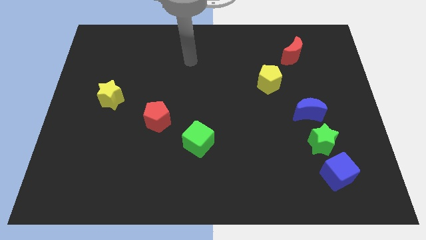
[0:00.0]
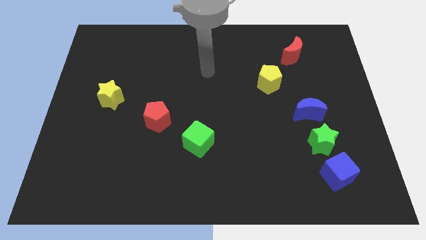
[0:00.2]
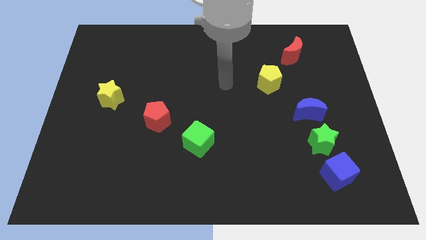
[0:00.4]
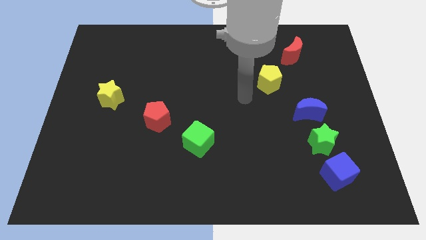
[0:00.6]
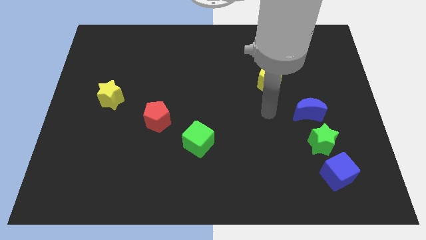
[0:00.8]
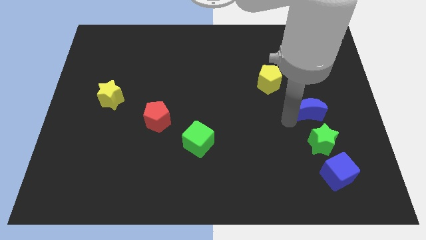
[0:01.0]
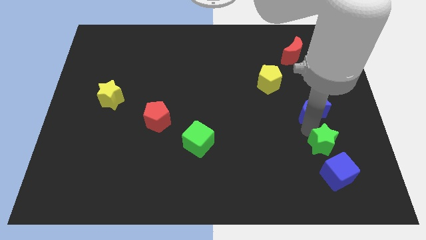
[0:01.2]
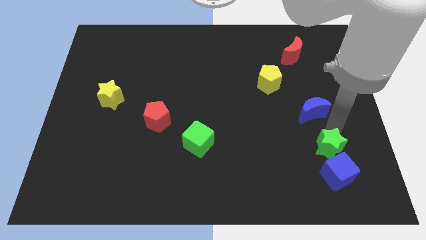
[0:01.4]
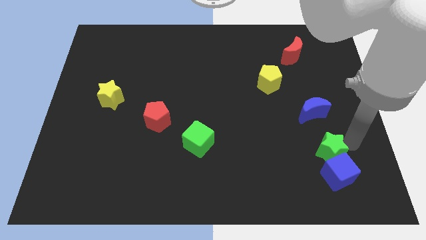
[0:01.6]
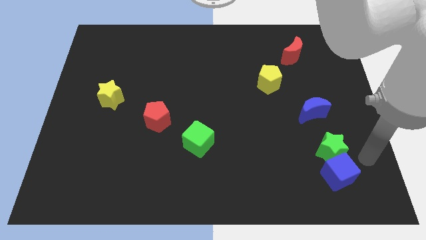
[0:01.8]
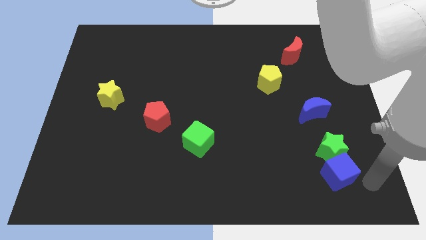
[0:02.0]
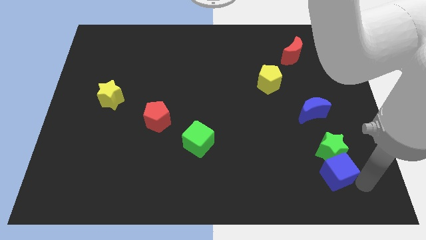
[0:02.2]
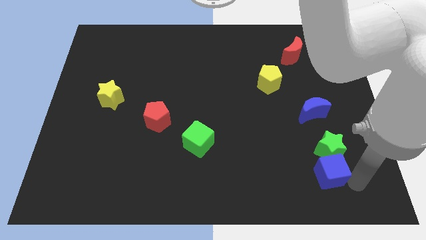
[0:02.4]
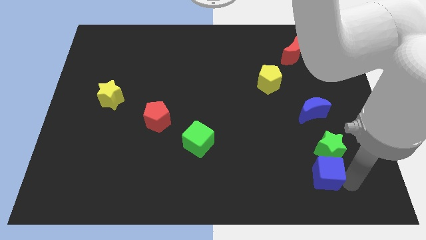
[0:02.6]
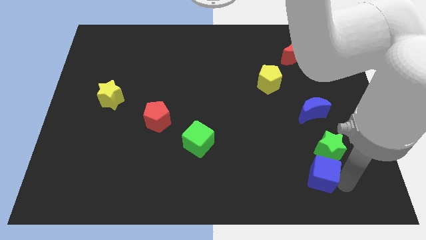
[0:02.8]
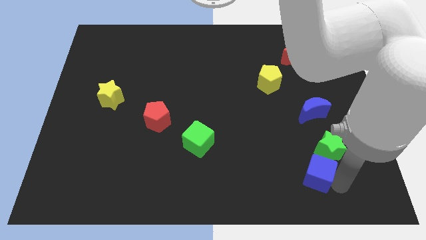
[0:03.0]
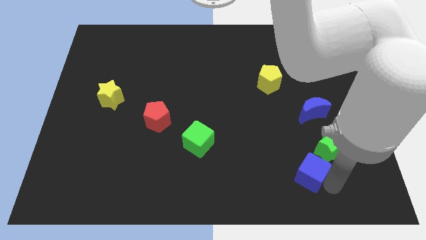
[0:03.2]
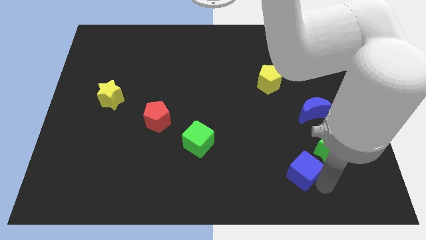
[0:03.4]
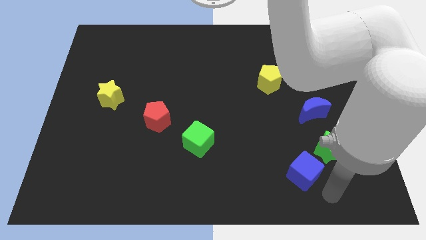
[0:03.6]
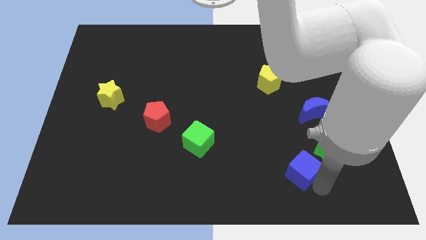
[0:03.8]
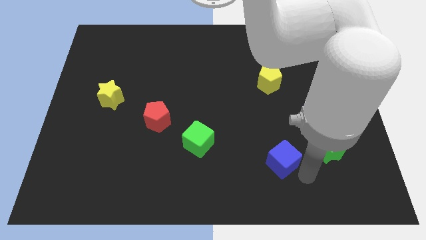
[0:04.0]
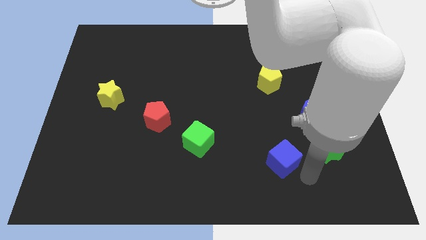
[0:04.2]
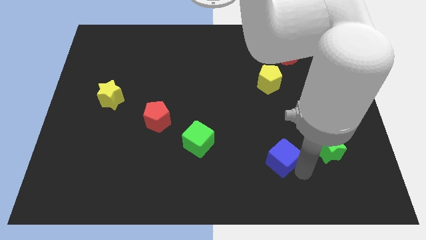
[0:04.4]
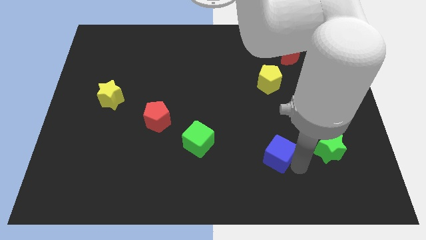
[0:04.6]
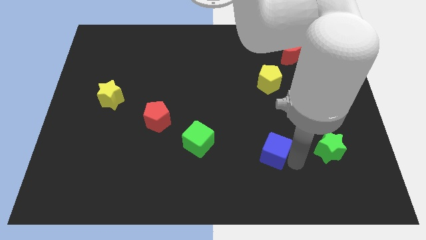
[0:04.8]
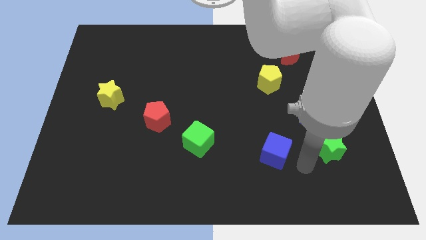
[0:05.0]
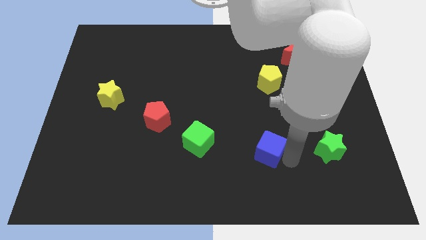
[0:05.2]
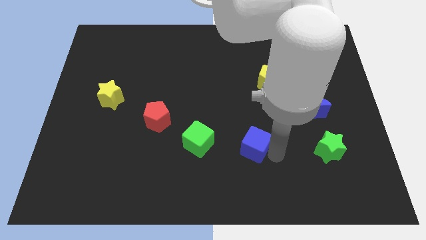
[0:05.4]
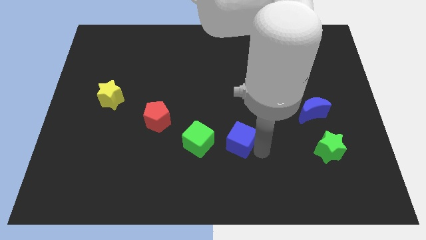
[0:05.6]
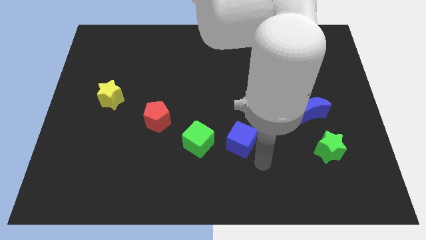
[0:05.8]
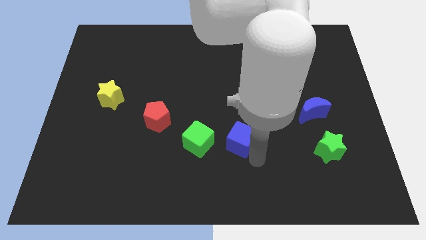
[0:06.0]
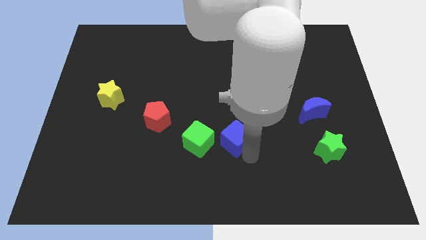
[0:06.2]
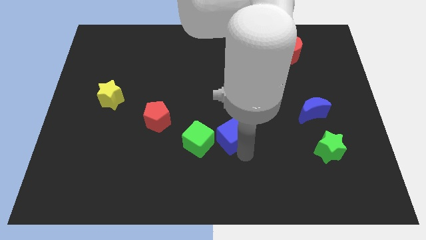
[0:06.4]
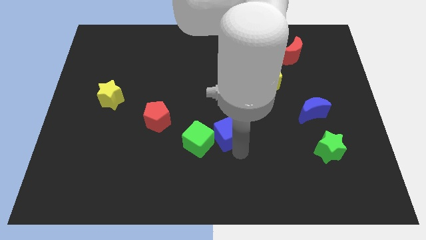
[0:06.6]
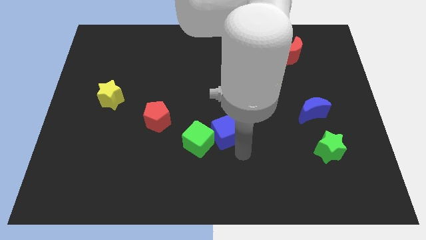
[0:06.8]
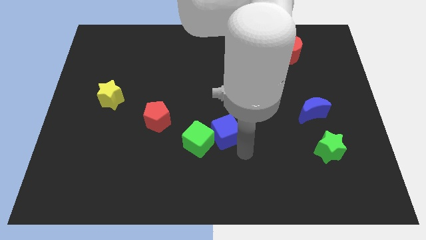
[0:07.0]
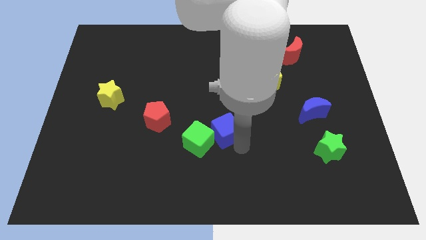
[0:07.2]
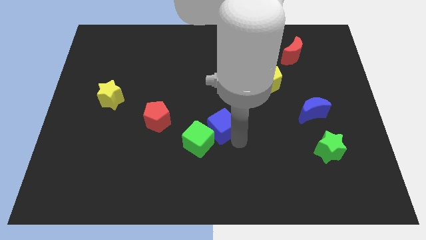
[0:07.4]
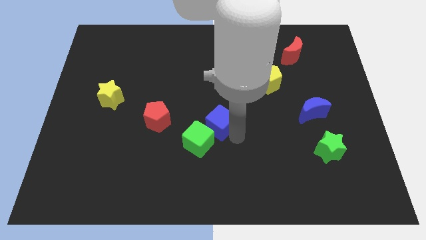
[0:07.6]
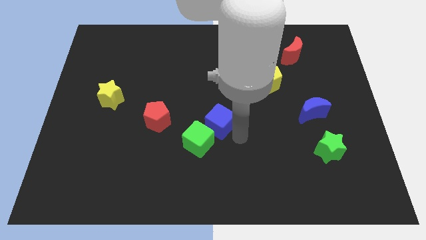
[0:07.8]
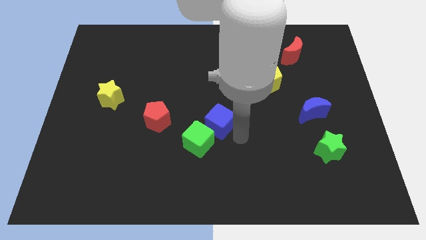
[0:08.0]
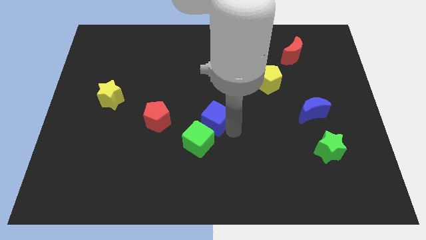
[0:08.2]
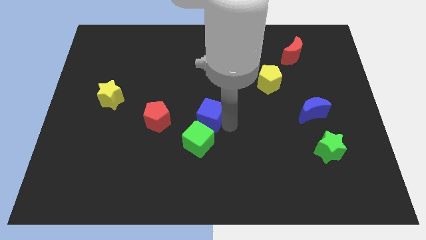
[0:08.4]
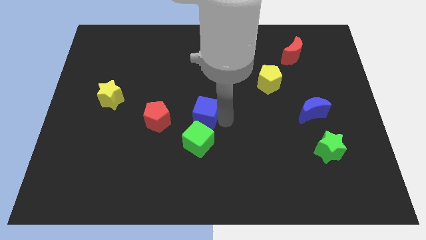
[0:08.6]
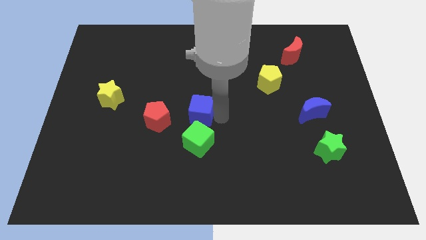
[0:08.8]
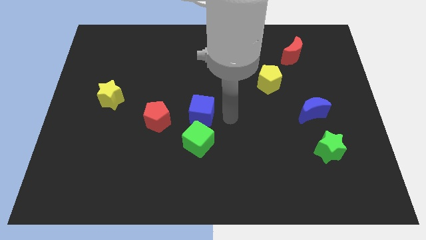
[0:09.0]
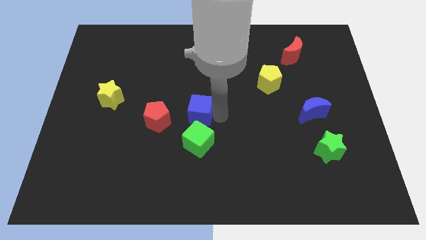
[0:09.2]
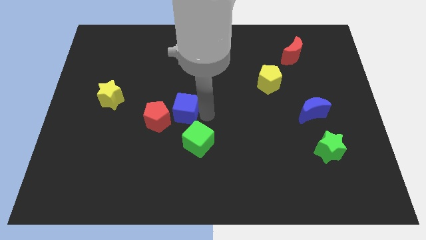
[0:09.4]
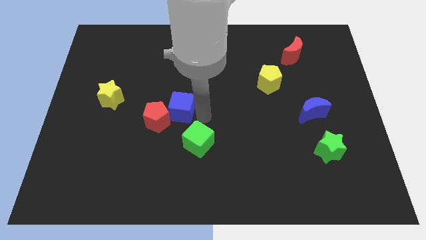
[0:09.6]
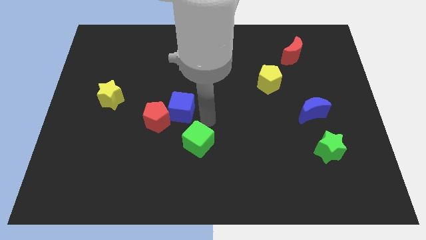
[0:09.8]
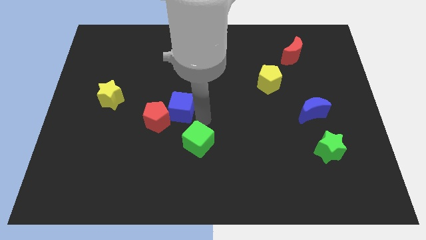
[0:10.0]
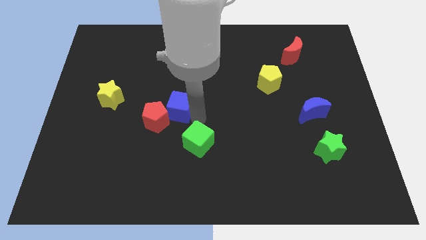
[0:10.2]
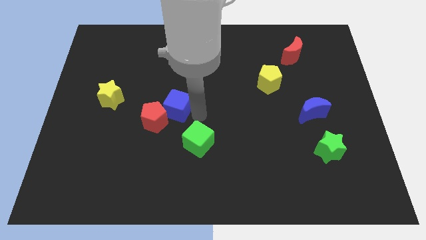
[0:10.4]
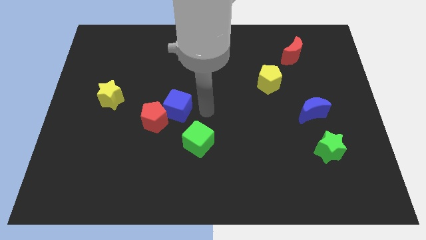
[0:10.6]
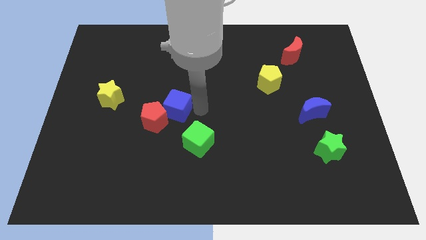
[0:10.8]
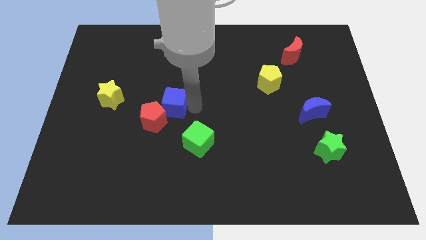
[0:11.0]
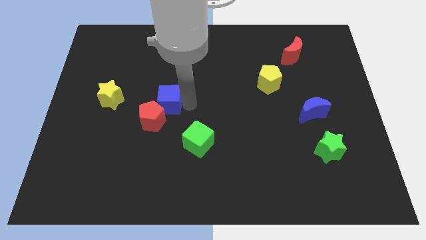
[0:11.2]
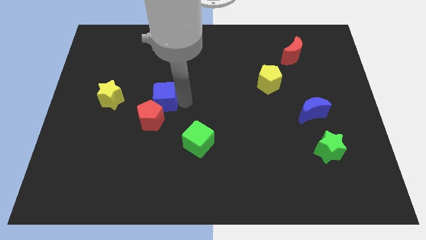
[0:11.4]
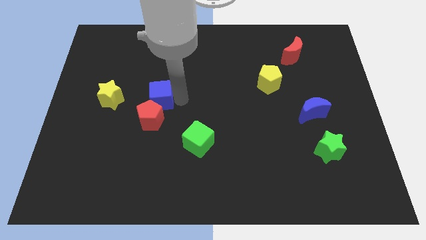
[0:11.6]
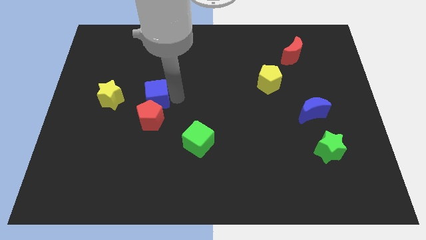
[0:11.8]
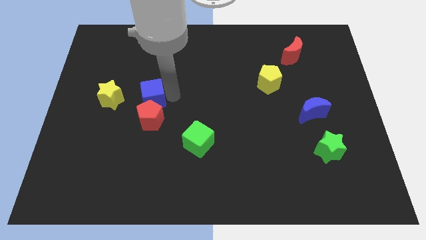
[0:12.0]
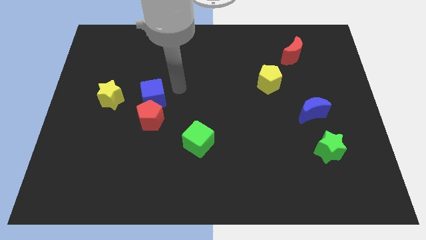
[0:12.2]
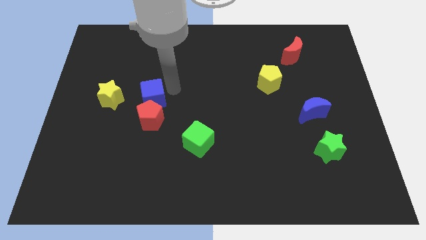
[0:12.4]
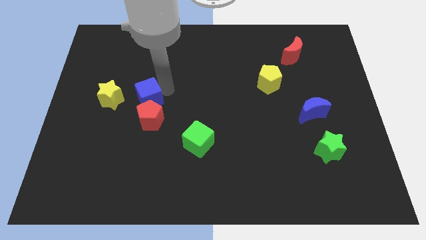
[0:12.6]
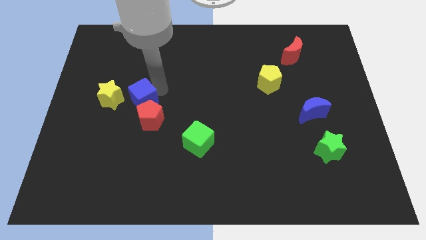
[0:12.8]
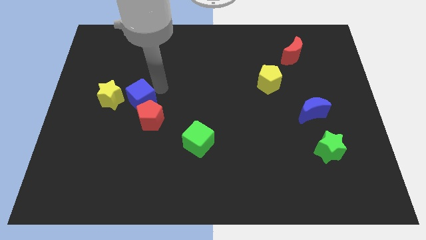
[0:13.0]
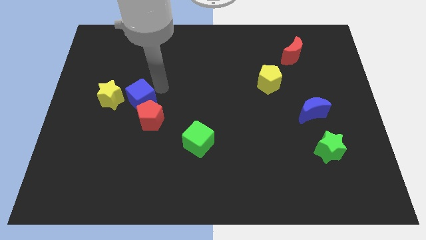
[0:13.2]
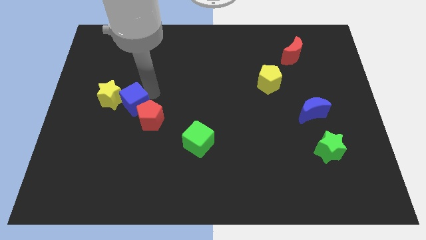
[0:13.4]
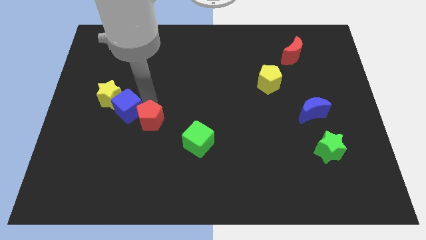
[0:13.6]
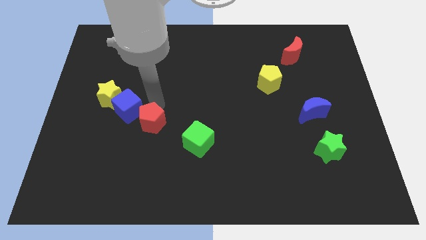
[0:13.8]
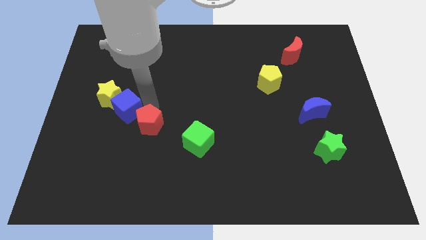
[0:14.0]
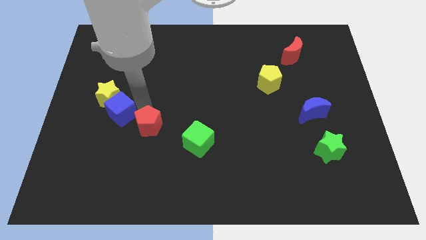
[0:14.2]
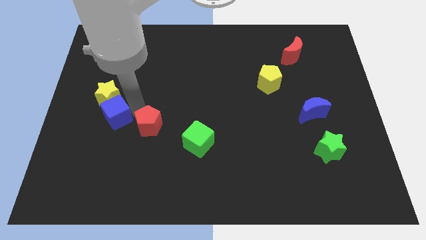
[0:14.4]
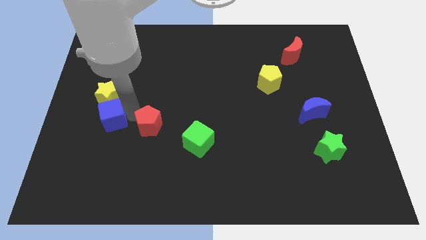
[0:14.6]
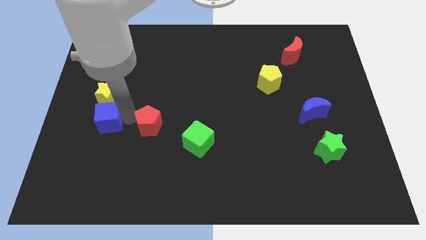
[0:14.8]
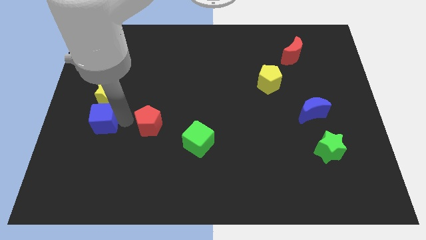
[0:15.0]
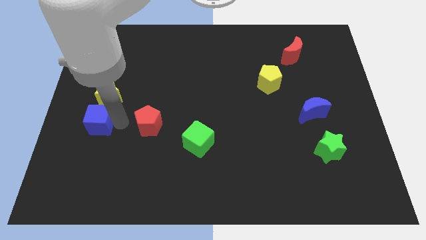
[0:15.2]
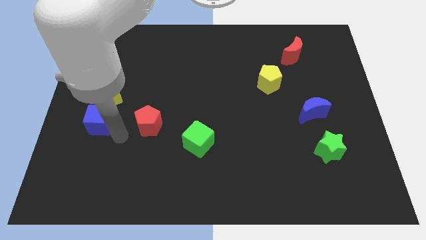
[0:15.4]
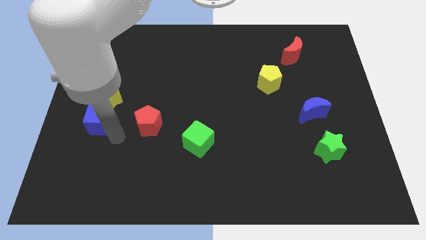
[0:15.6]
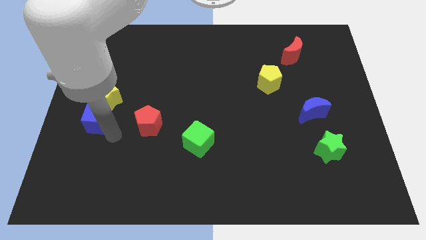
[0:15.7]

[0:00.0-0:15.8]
push the blue cube to the left side of the board
